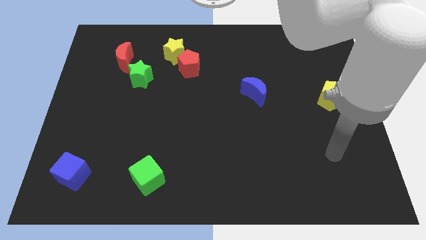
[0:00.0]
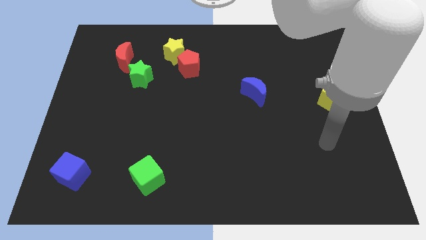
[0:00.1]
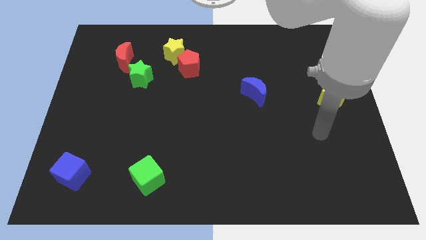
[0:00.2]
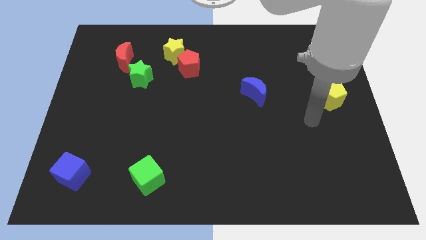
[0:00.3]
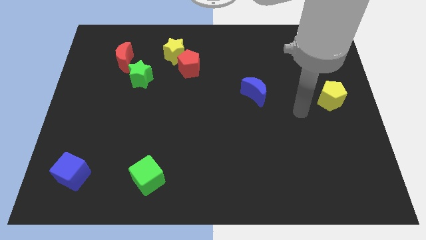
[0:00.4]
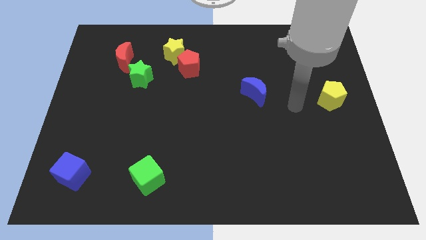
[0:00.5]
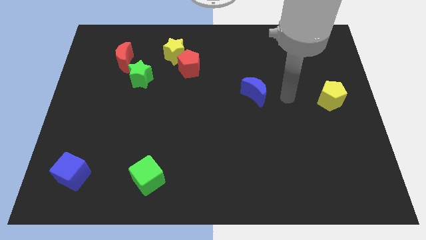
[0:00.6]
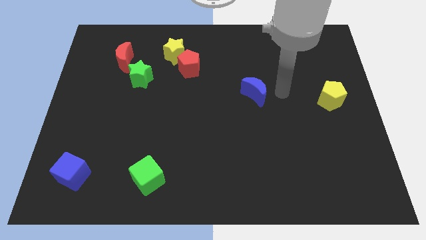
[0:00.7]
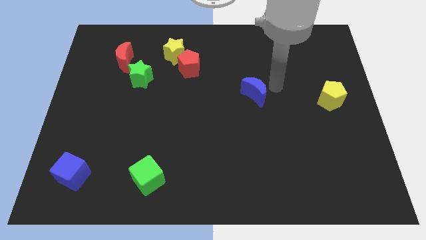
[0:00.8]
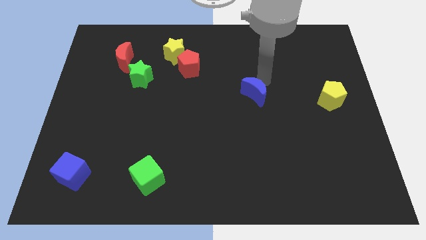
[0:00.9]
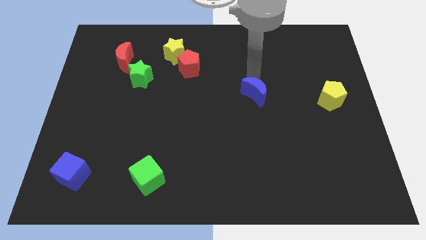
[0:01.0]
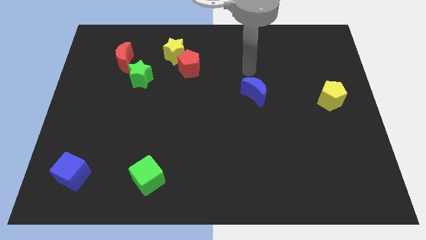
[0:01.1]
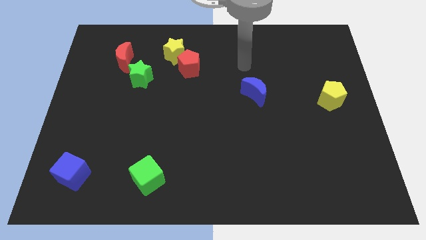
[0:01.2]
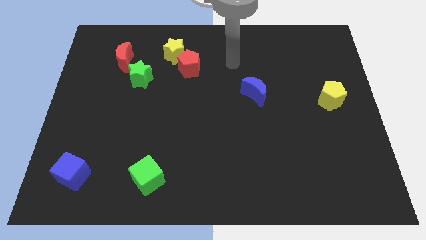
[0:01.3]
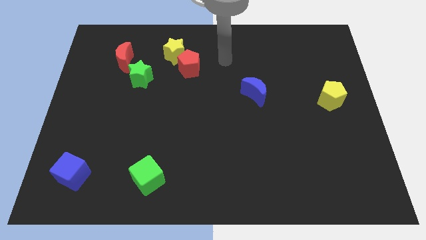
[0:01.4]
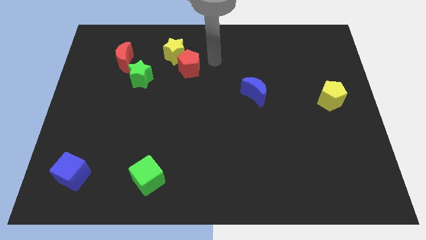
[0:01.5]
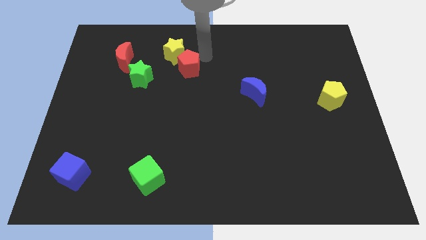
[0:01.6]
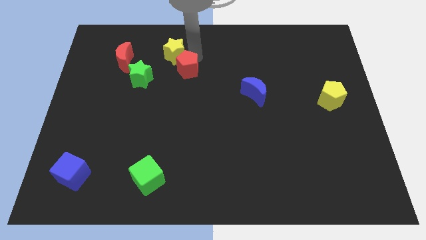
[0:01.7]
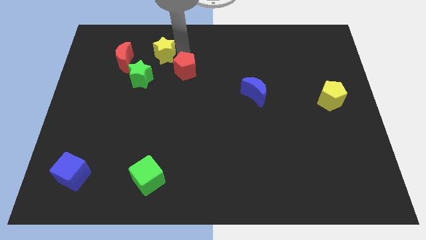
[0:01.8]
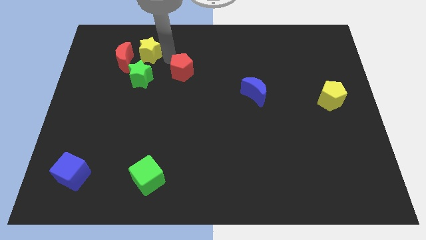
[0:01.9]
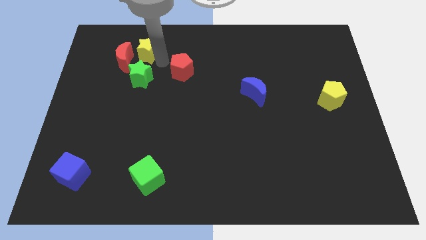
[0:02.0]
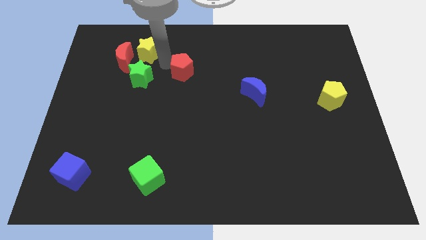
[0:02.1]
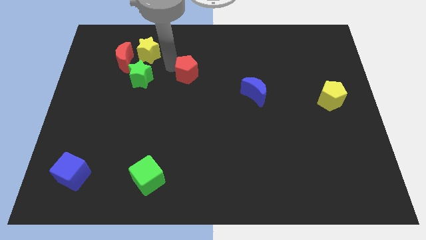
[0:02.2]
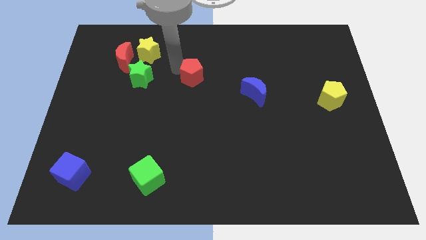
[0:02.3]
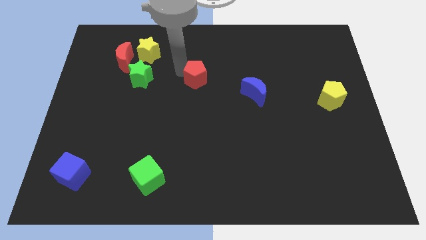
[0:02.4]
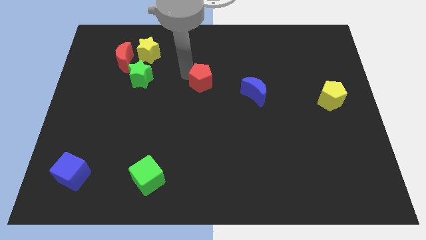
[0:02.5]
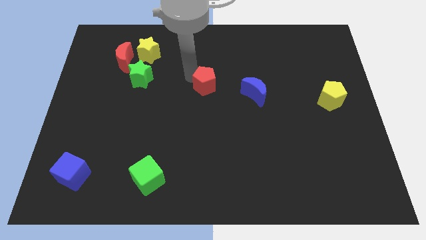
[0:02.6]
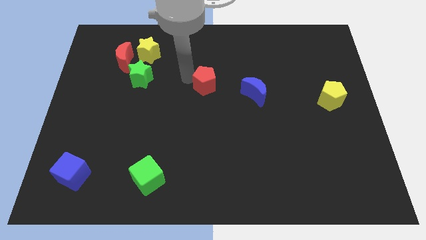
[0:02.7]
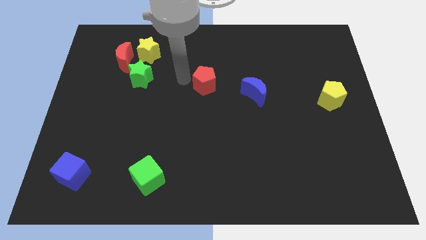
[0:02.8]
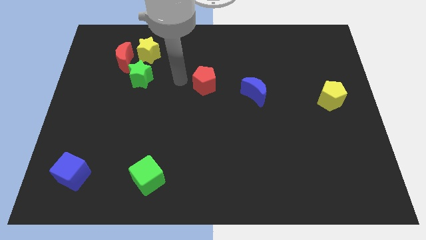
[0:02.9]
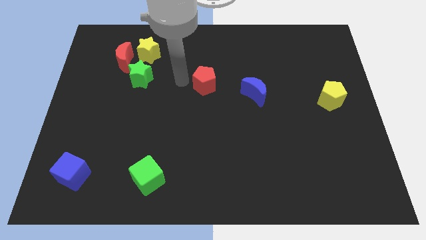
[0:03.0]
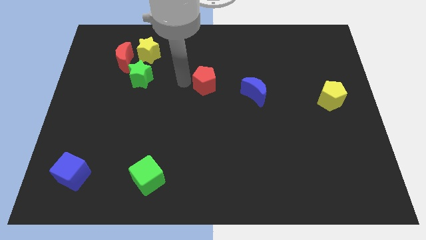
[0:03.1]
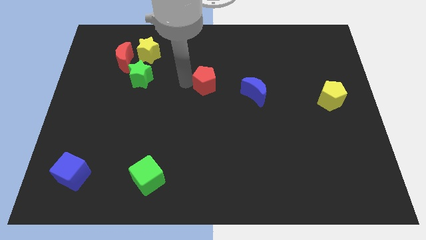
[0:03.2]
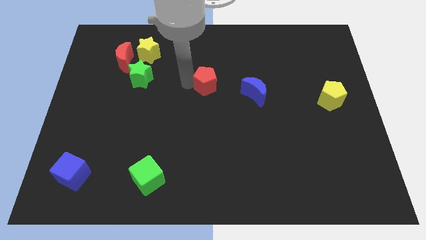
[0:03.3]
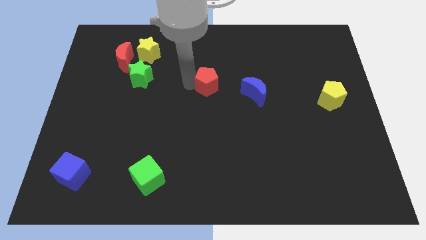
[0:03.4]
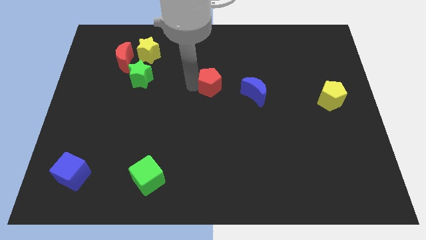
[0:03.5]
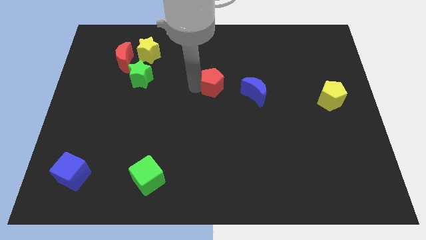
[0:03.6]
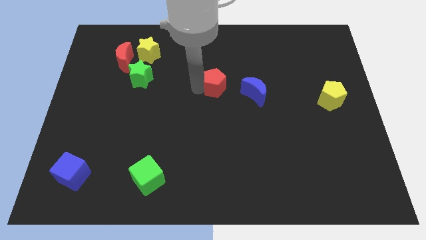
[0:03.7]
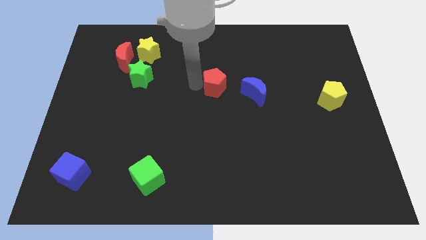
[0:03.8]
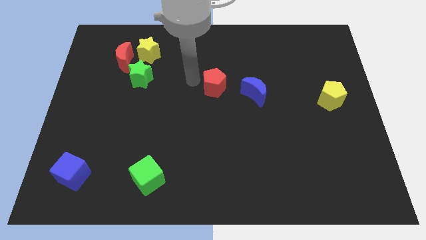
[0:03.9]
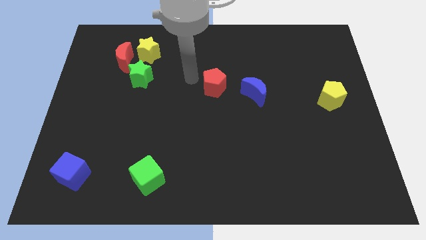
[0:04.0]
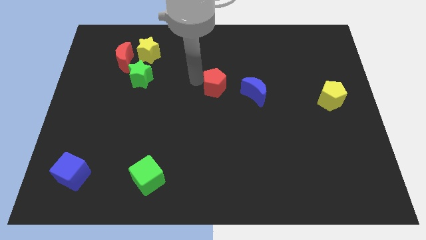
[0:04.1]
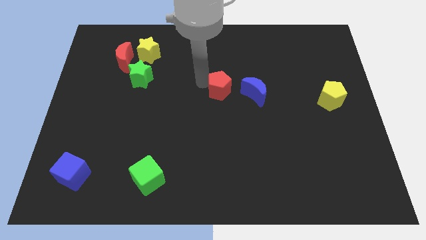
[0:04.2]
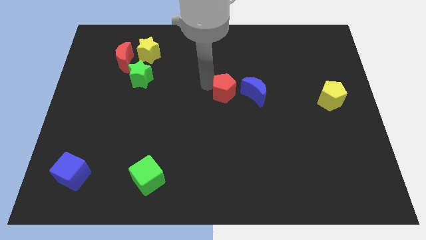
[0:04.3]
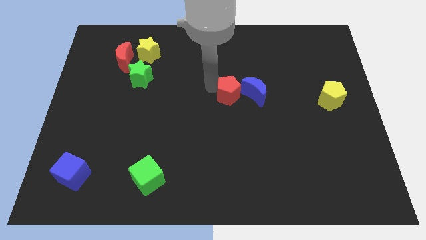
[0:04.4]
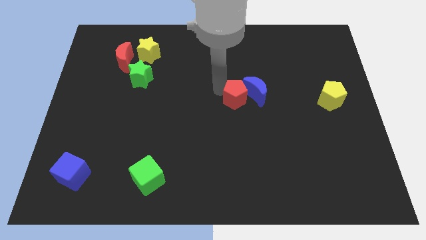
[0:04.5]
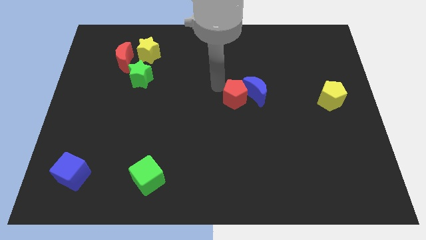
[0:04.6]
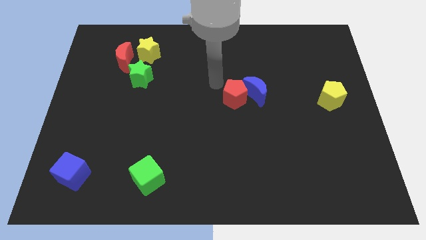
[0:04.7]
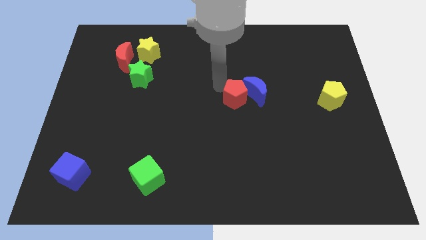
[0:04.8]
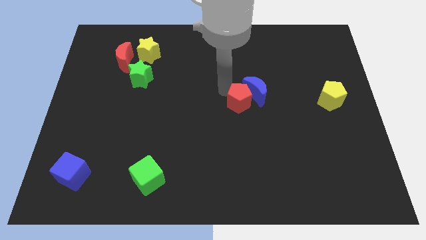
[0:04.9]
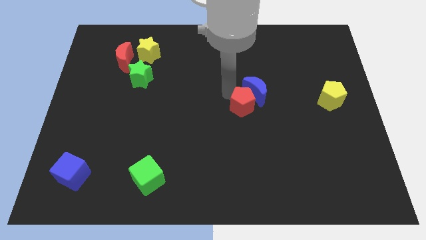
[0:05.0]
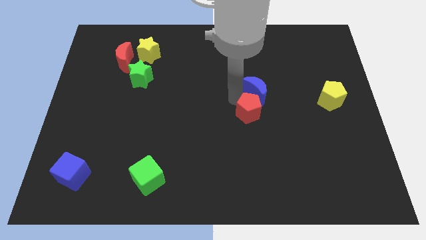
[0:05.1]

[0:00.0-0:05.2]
move the red pentagon downwards and to the right

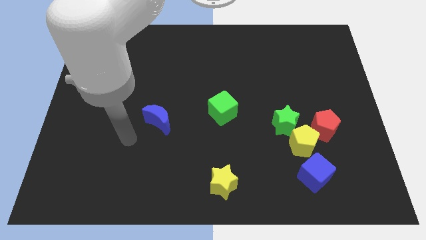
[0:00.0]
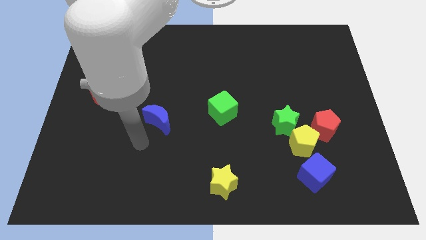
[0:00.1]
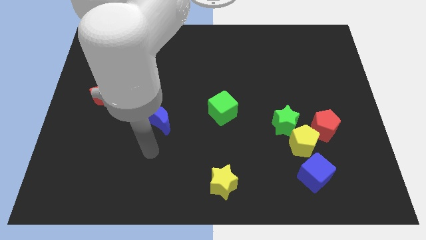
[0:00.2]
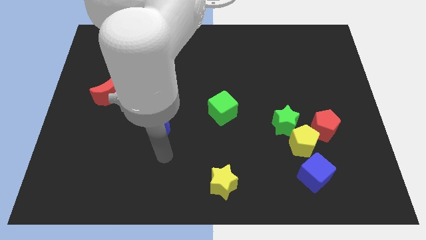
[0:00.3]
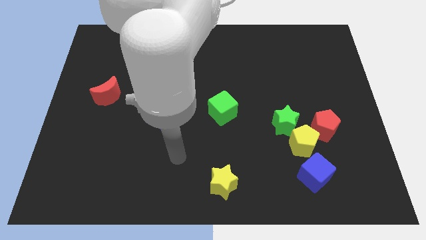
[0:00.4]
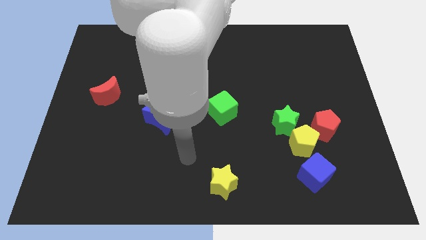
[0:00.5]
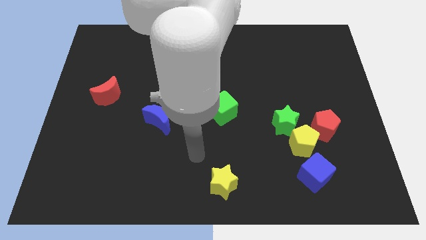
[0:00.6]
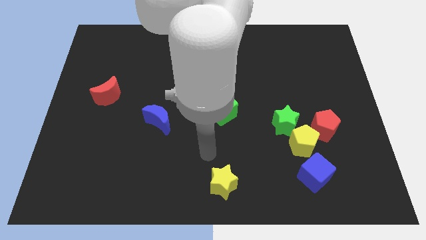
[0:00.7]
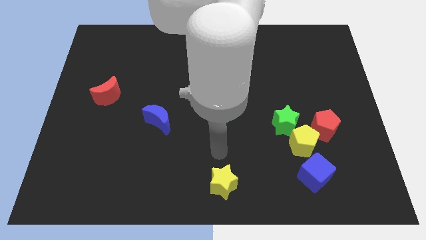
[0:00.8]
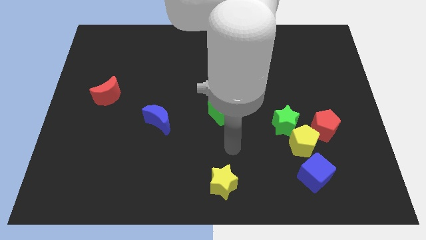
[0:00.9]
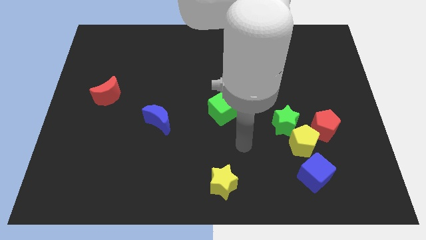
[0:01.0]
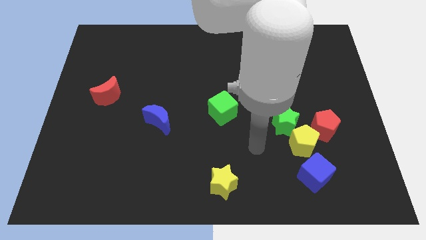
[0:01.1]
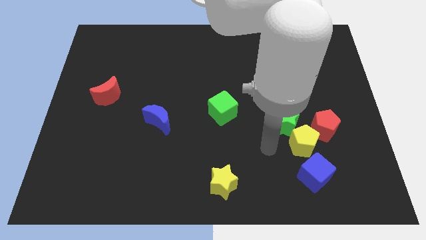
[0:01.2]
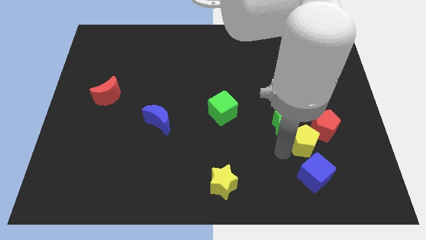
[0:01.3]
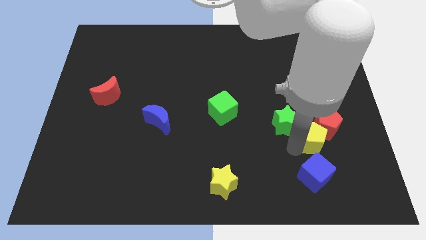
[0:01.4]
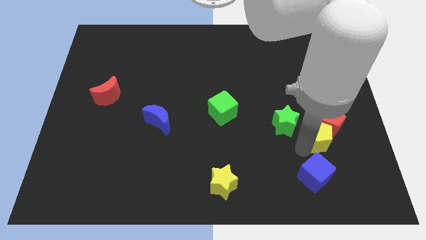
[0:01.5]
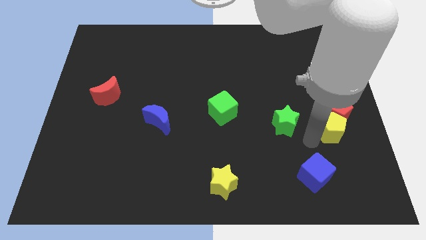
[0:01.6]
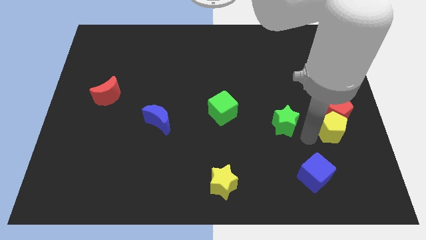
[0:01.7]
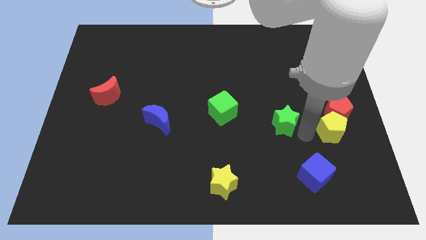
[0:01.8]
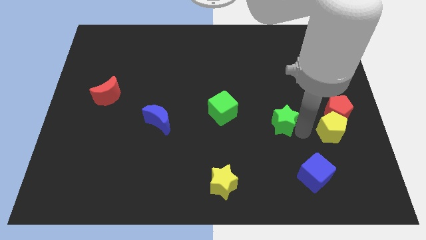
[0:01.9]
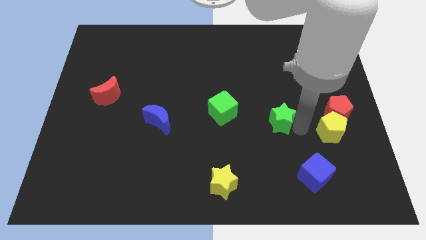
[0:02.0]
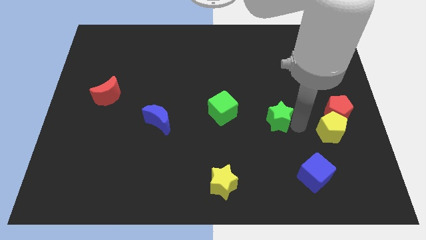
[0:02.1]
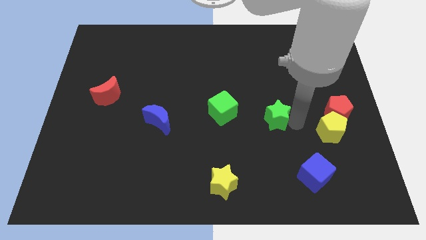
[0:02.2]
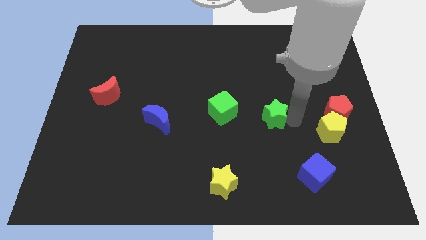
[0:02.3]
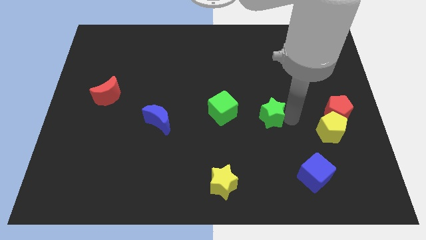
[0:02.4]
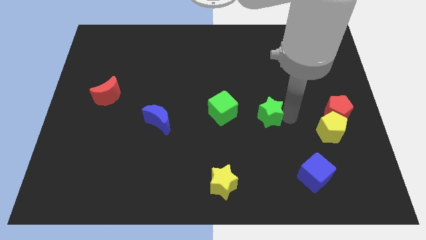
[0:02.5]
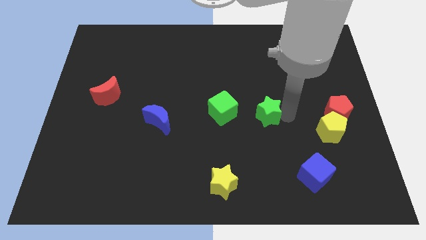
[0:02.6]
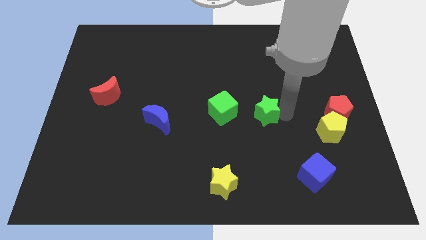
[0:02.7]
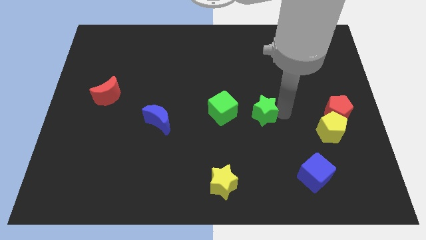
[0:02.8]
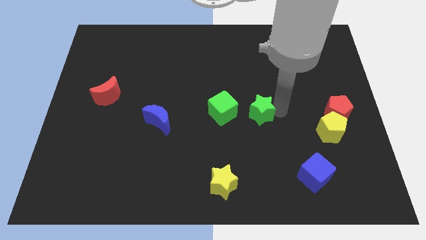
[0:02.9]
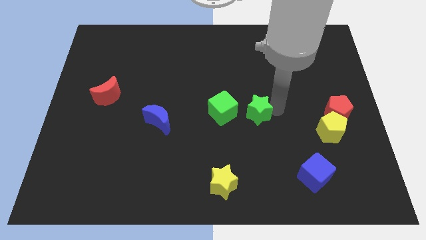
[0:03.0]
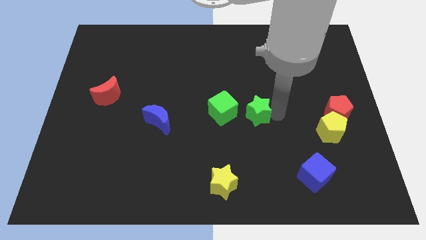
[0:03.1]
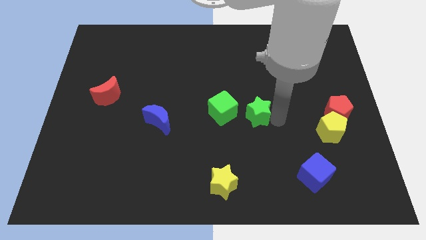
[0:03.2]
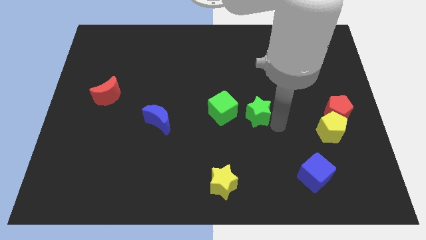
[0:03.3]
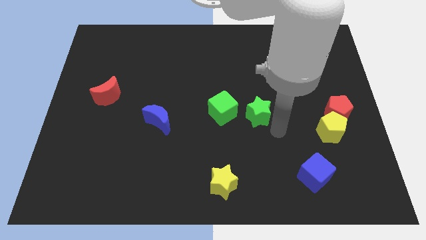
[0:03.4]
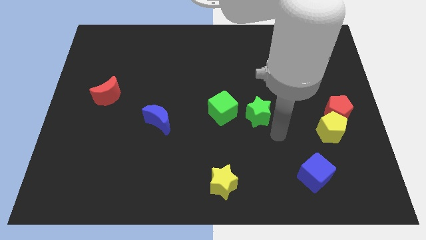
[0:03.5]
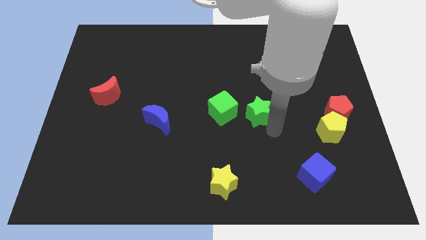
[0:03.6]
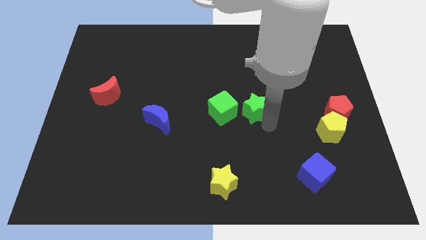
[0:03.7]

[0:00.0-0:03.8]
move the green star diagonally up and to the left a little bit
